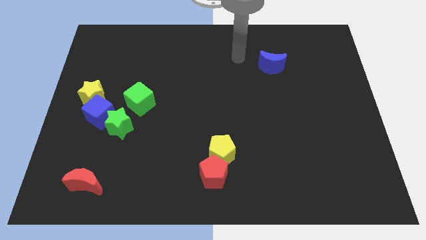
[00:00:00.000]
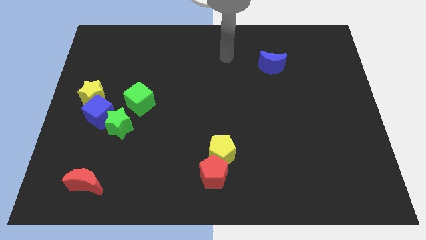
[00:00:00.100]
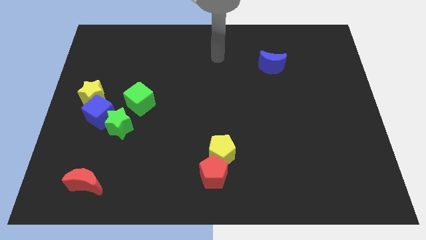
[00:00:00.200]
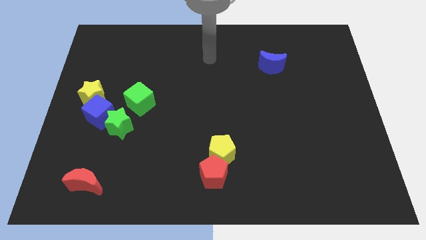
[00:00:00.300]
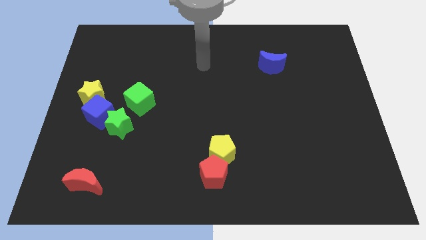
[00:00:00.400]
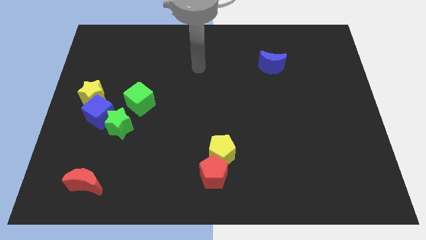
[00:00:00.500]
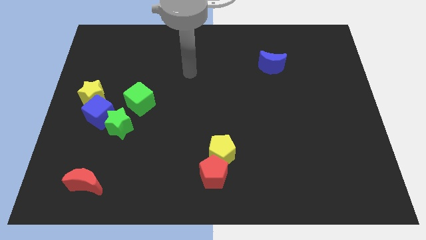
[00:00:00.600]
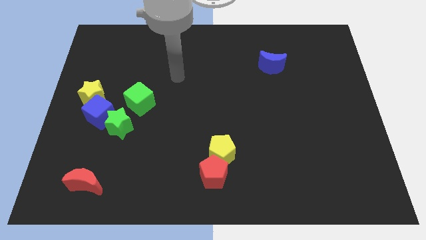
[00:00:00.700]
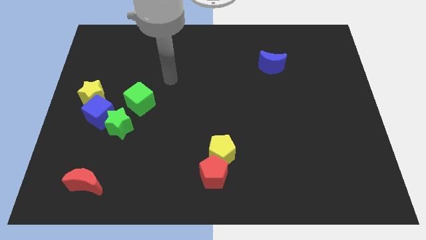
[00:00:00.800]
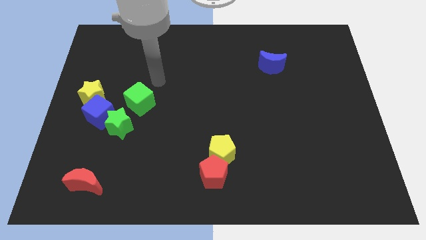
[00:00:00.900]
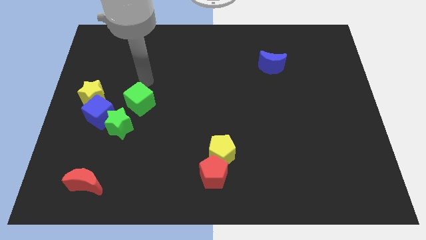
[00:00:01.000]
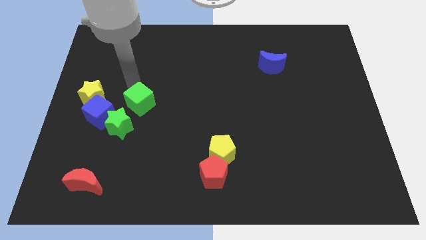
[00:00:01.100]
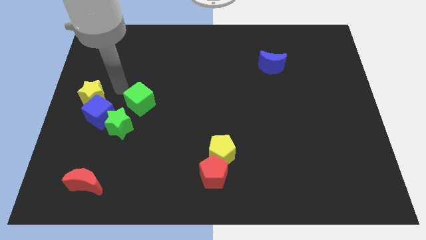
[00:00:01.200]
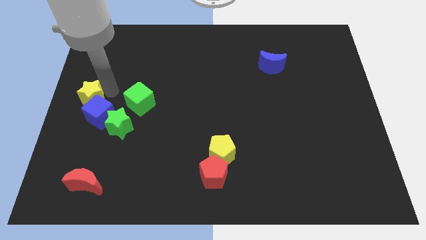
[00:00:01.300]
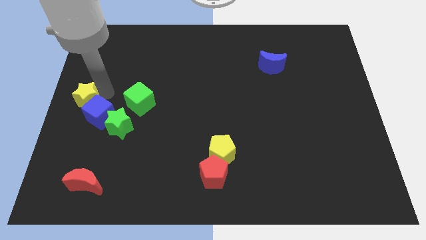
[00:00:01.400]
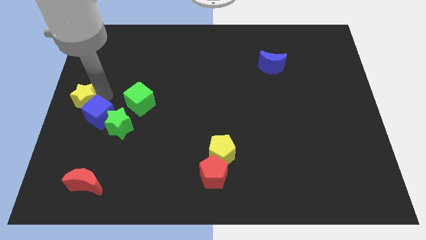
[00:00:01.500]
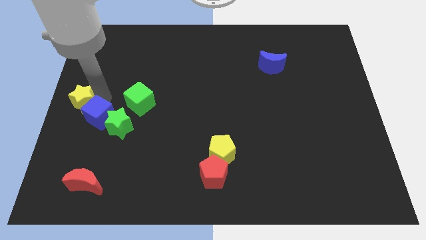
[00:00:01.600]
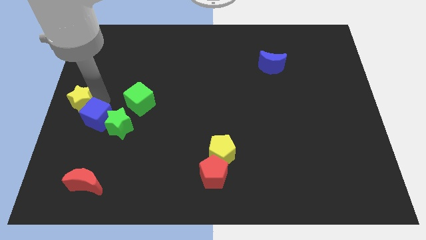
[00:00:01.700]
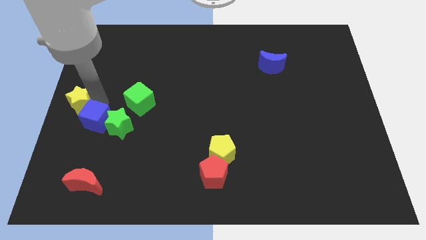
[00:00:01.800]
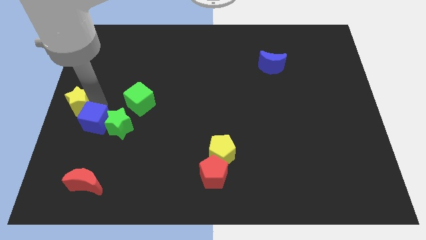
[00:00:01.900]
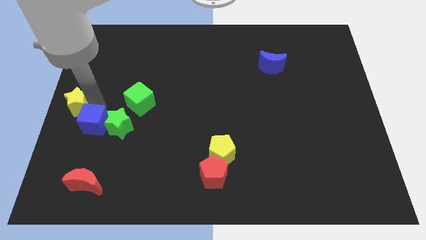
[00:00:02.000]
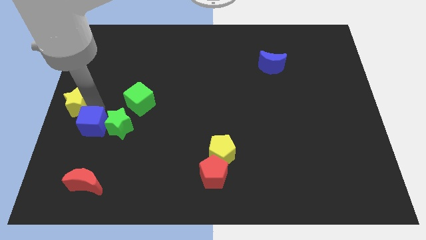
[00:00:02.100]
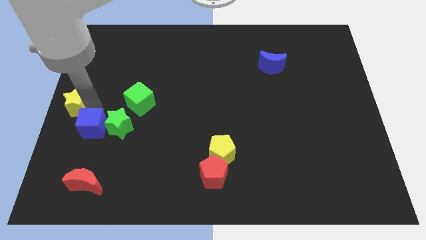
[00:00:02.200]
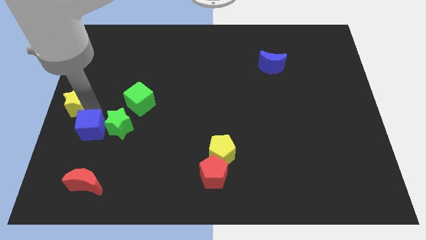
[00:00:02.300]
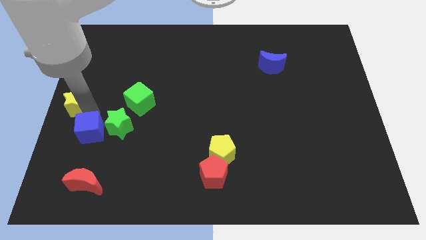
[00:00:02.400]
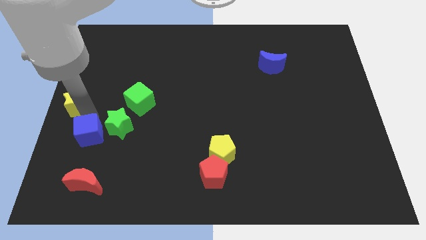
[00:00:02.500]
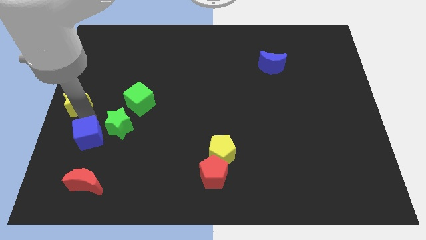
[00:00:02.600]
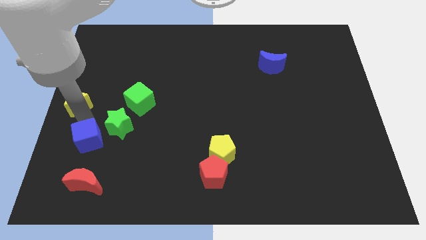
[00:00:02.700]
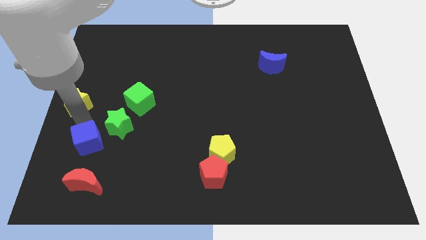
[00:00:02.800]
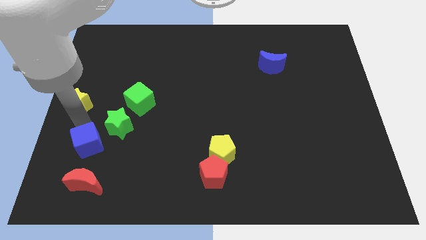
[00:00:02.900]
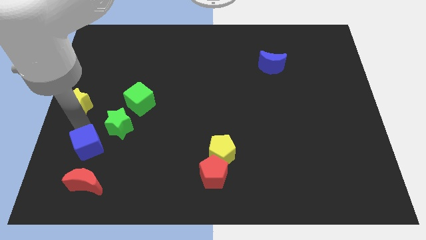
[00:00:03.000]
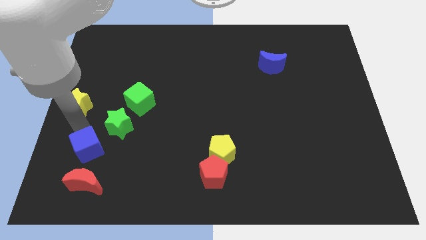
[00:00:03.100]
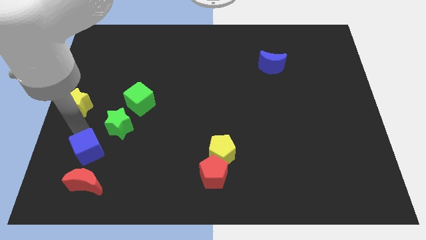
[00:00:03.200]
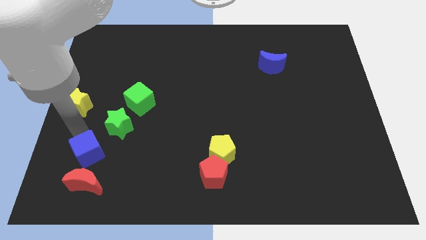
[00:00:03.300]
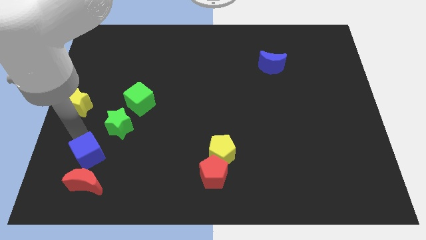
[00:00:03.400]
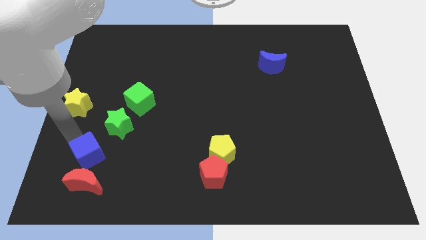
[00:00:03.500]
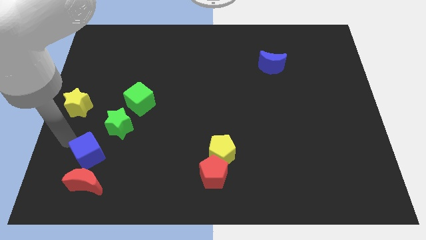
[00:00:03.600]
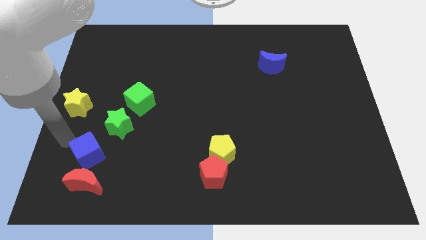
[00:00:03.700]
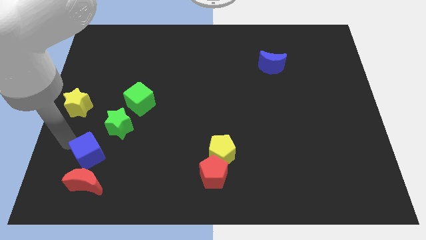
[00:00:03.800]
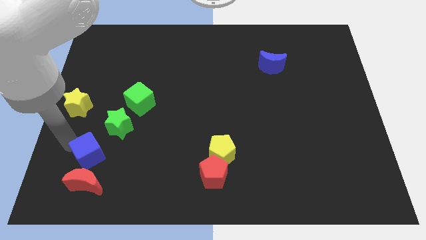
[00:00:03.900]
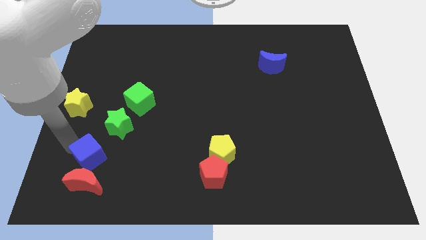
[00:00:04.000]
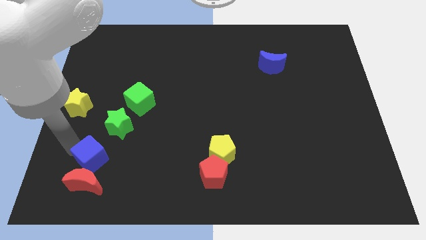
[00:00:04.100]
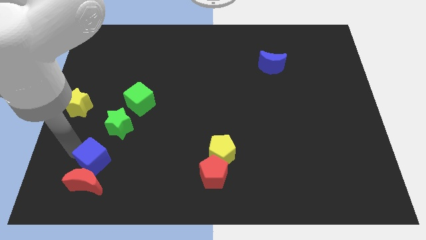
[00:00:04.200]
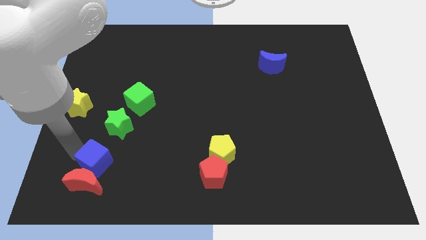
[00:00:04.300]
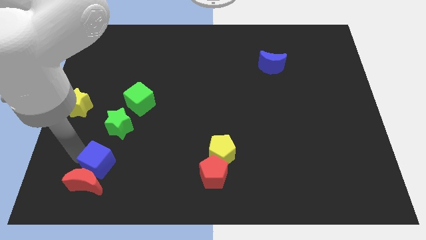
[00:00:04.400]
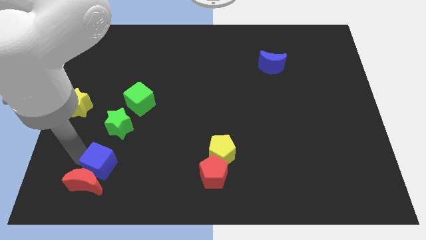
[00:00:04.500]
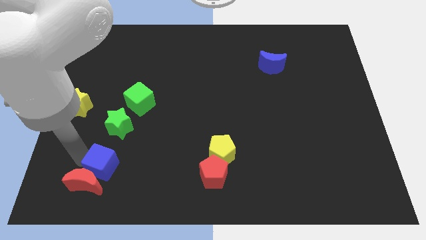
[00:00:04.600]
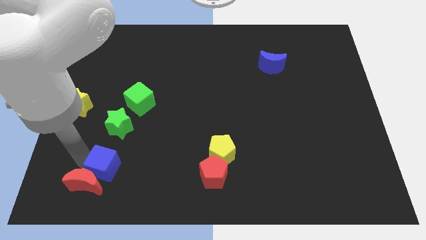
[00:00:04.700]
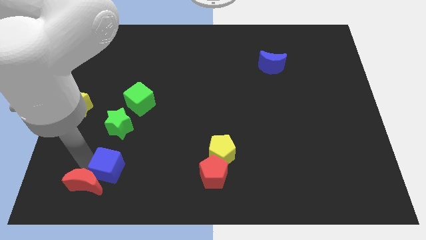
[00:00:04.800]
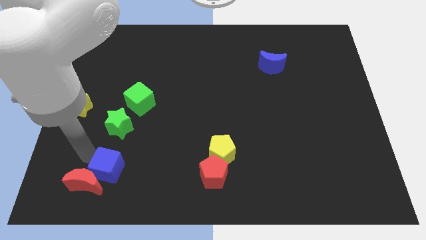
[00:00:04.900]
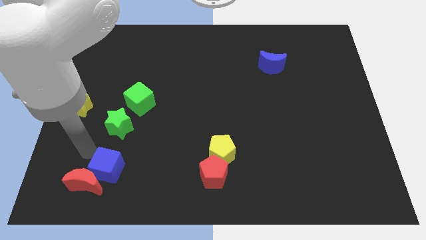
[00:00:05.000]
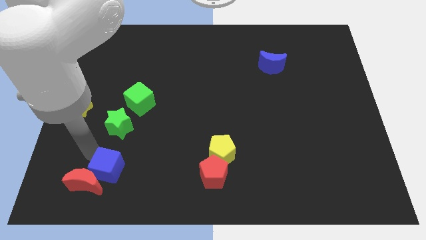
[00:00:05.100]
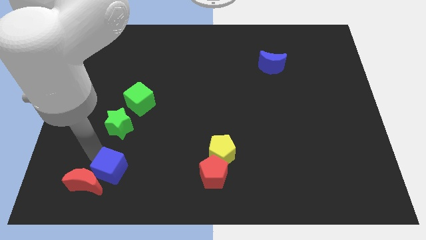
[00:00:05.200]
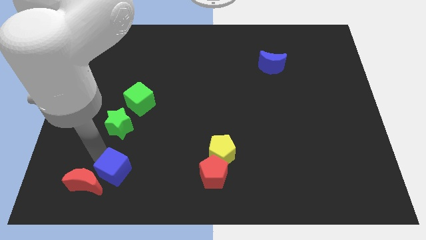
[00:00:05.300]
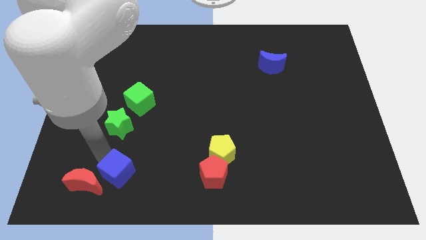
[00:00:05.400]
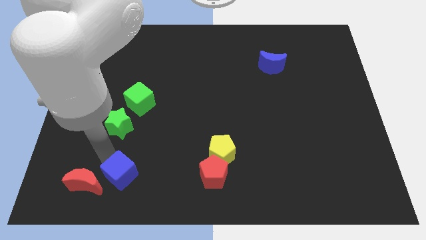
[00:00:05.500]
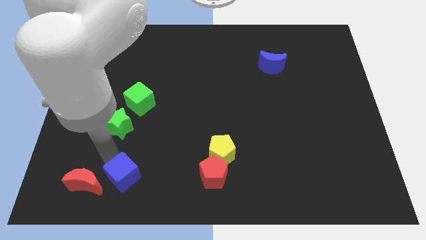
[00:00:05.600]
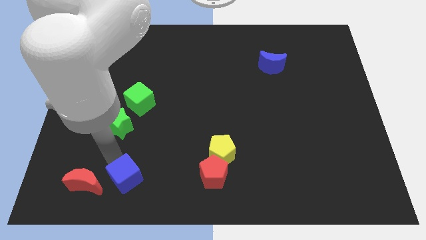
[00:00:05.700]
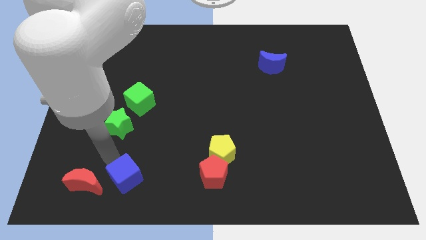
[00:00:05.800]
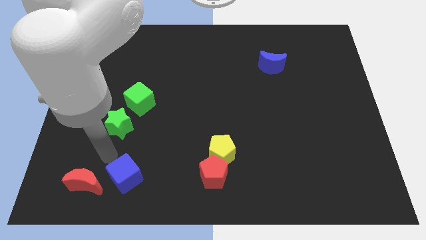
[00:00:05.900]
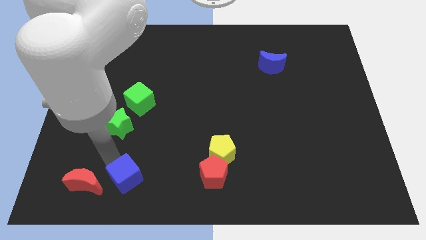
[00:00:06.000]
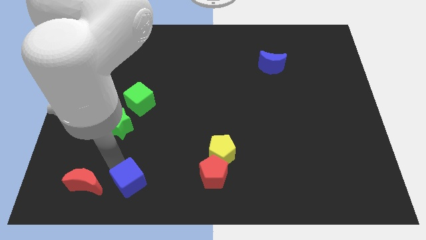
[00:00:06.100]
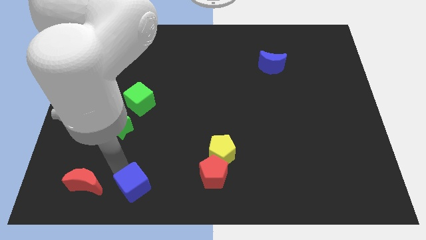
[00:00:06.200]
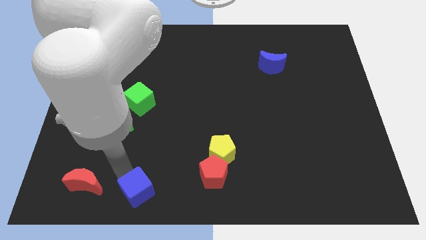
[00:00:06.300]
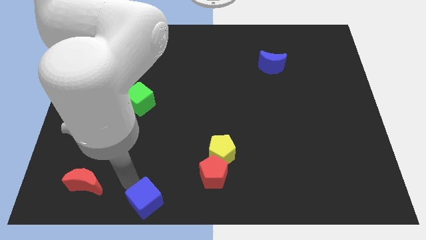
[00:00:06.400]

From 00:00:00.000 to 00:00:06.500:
put the blue cube to the bottom side
